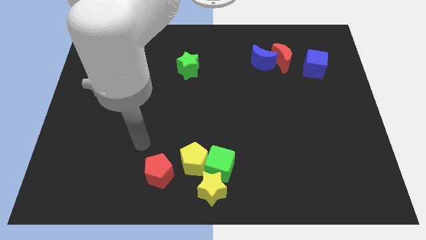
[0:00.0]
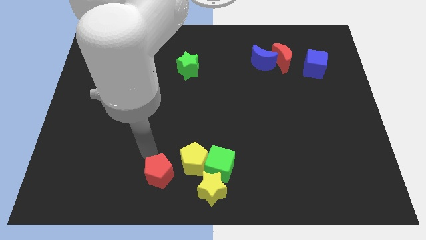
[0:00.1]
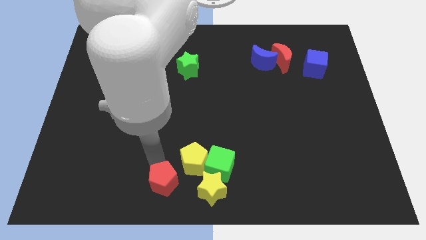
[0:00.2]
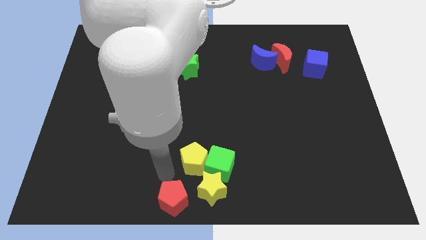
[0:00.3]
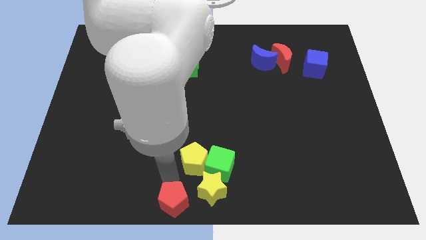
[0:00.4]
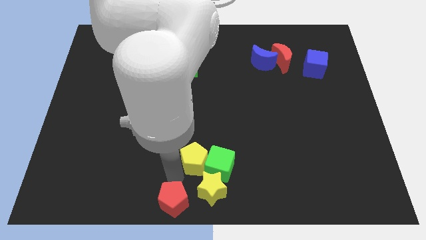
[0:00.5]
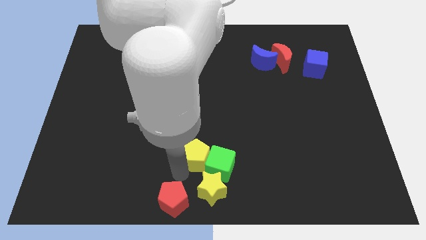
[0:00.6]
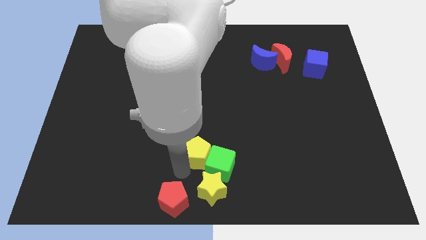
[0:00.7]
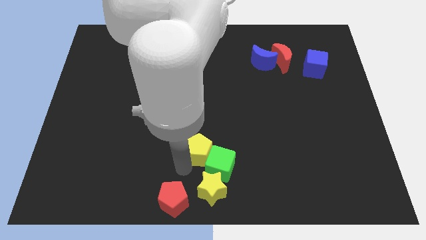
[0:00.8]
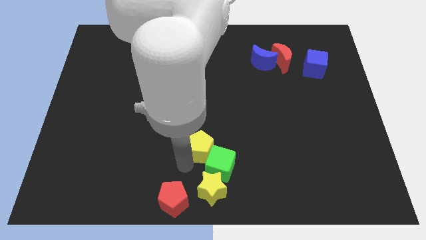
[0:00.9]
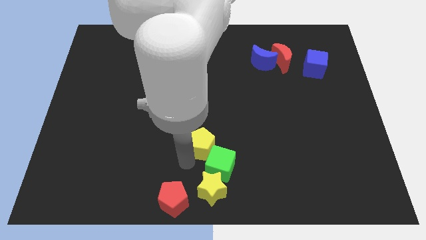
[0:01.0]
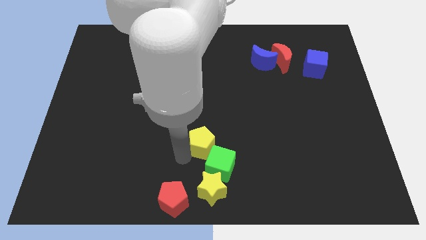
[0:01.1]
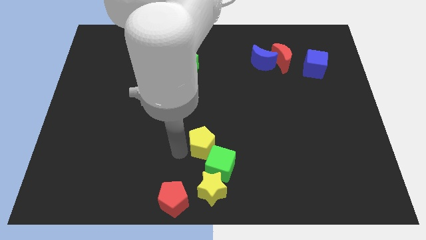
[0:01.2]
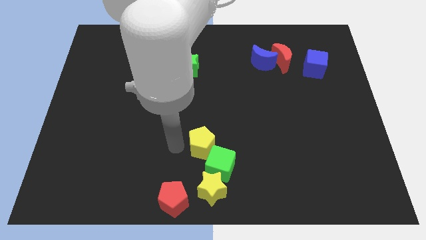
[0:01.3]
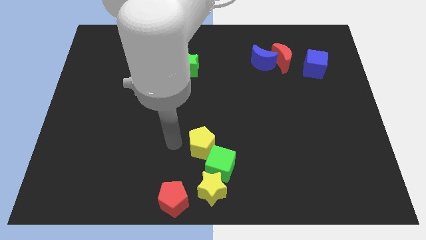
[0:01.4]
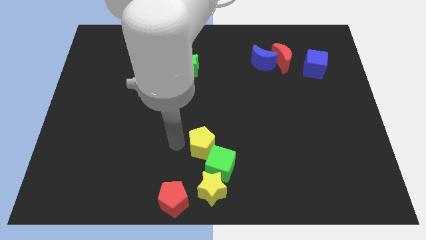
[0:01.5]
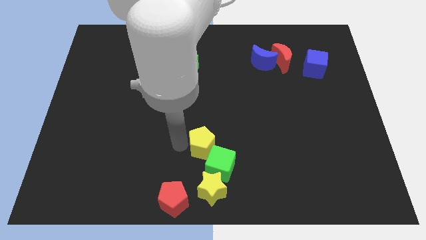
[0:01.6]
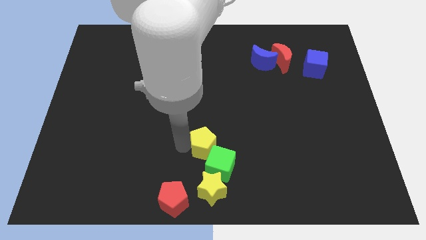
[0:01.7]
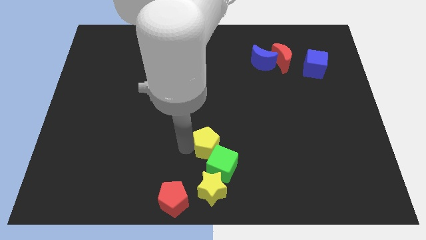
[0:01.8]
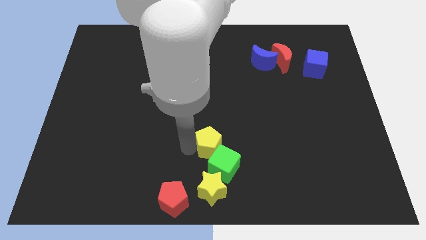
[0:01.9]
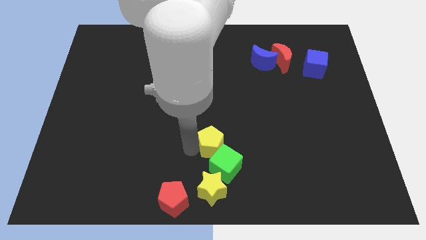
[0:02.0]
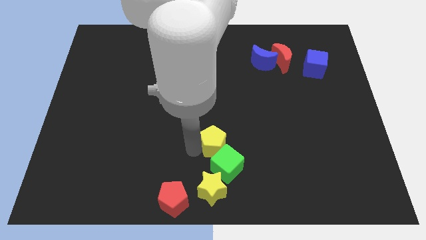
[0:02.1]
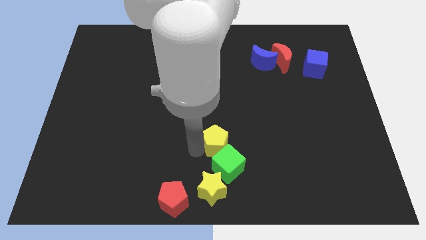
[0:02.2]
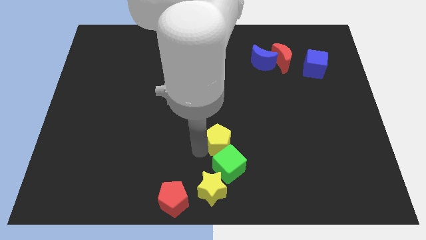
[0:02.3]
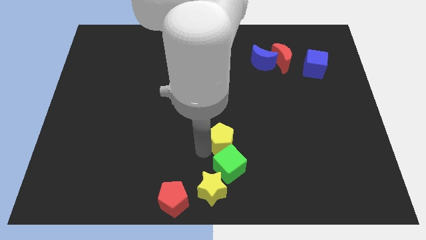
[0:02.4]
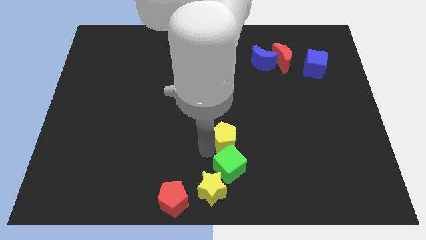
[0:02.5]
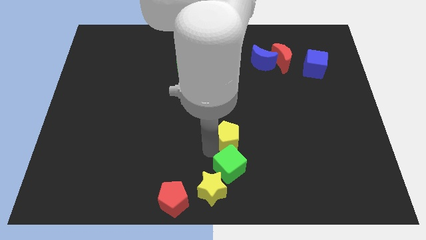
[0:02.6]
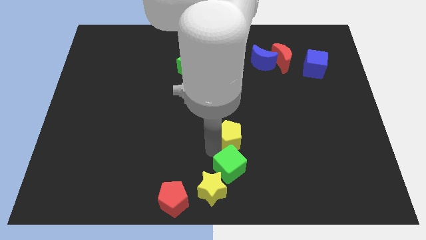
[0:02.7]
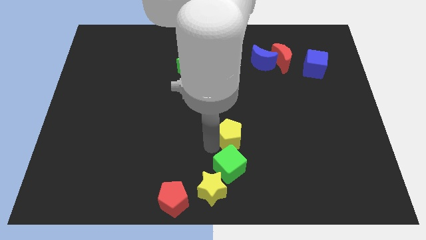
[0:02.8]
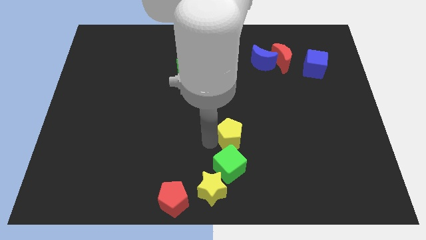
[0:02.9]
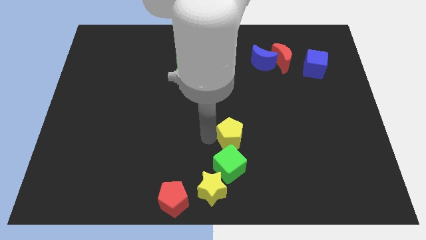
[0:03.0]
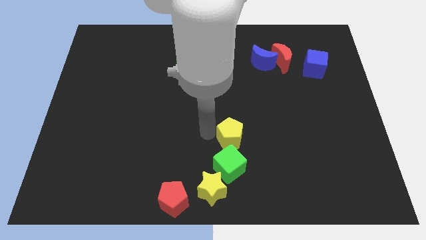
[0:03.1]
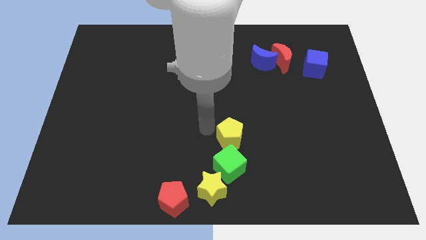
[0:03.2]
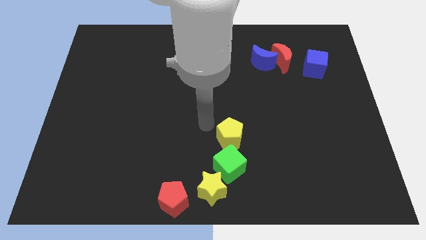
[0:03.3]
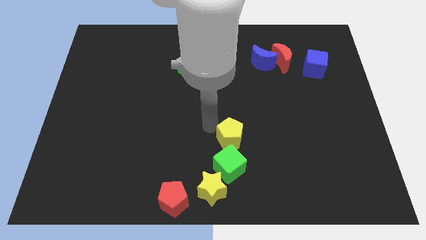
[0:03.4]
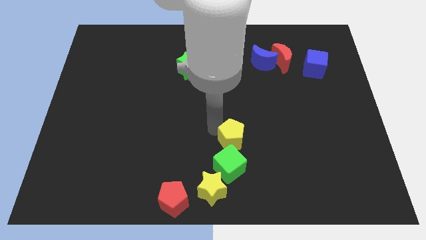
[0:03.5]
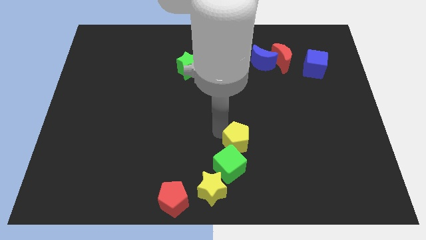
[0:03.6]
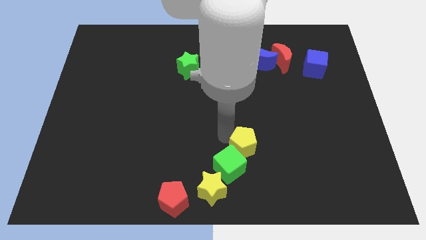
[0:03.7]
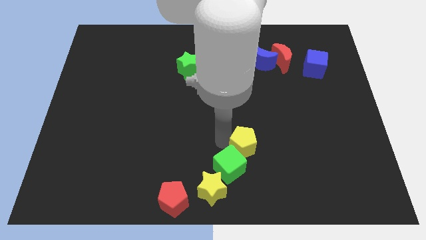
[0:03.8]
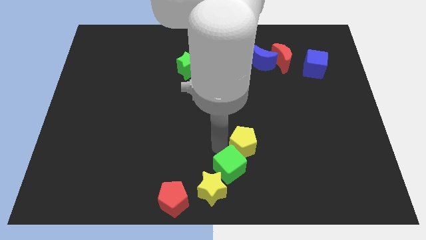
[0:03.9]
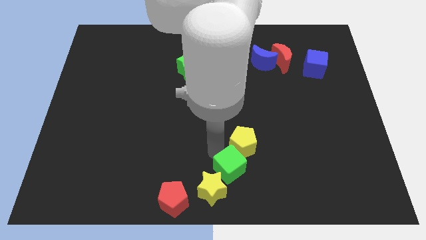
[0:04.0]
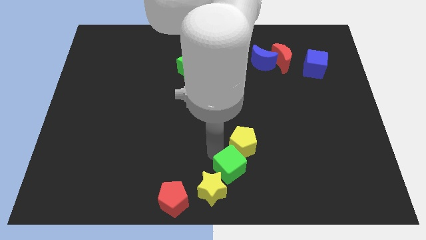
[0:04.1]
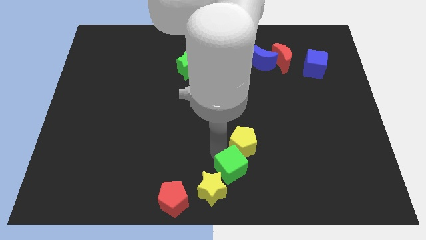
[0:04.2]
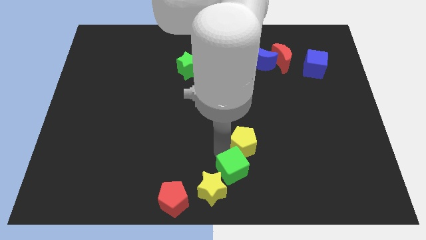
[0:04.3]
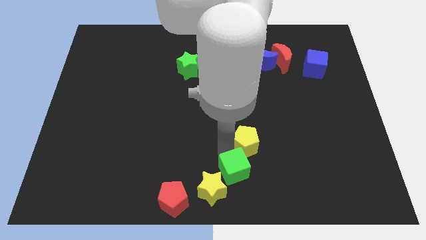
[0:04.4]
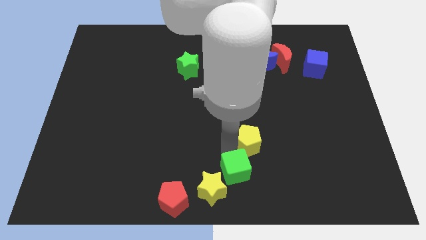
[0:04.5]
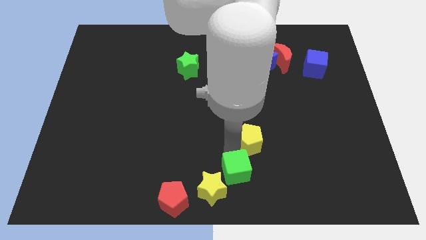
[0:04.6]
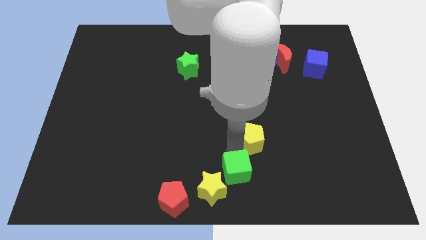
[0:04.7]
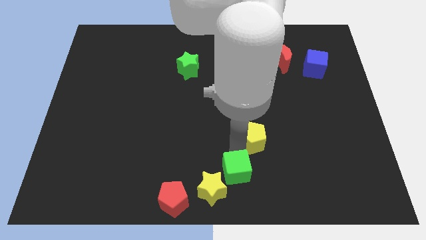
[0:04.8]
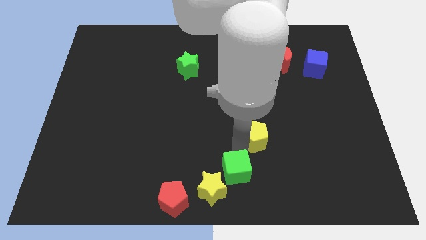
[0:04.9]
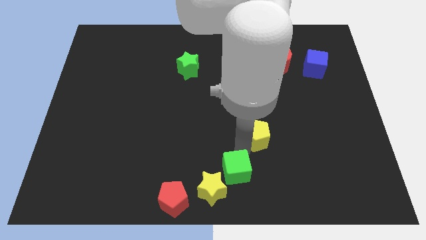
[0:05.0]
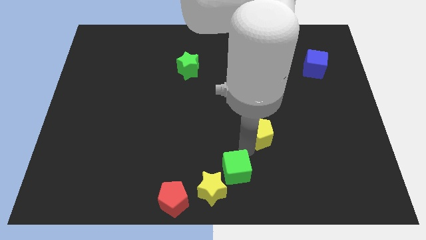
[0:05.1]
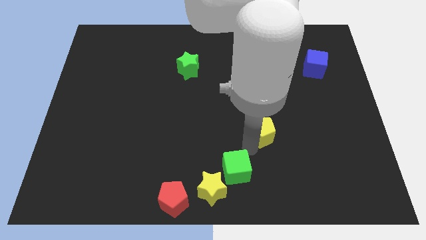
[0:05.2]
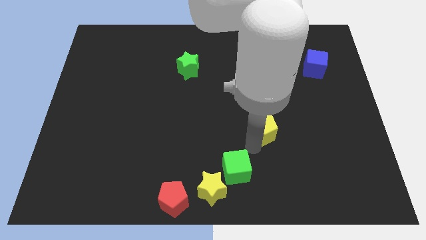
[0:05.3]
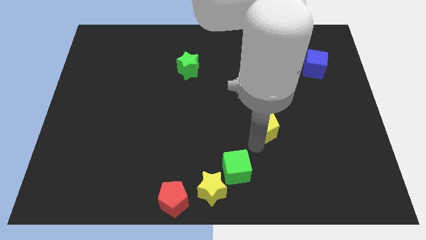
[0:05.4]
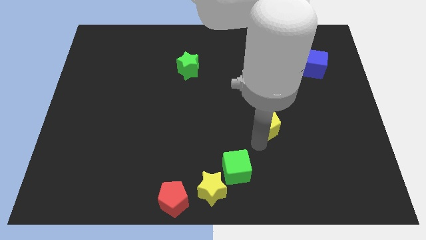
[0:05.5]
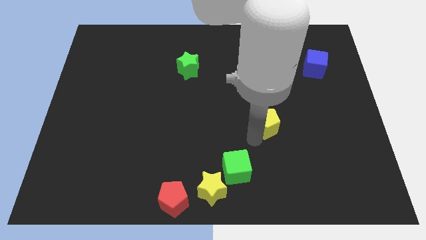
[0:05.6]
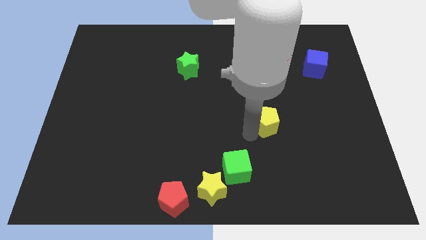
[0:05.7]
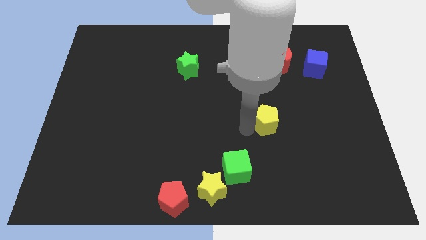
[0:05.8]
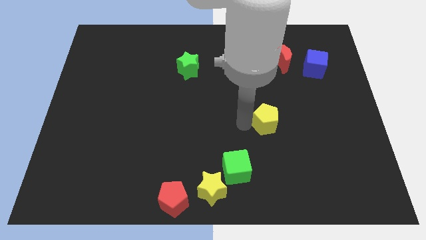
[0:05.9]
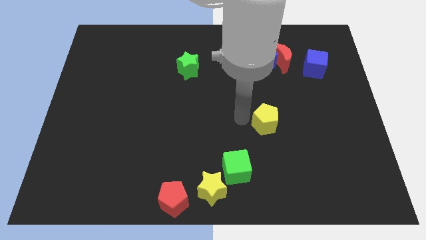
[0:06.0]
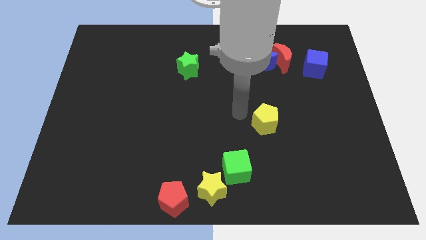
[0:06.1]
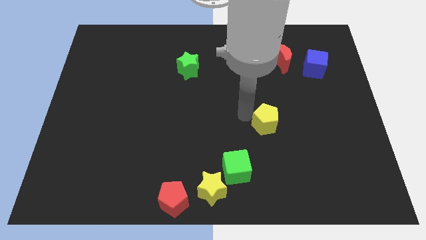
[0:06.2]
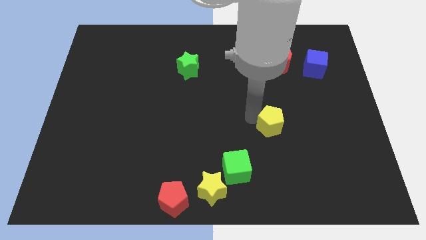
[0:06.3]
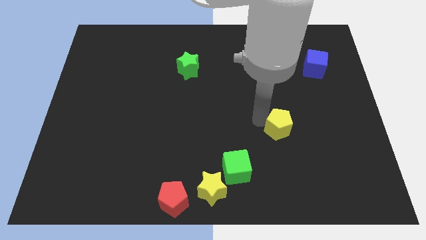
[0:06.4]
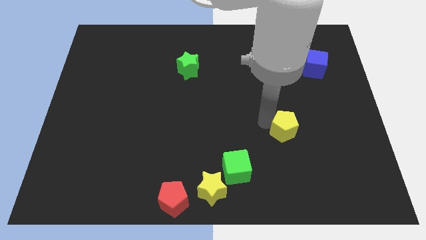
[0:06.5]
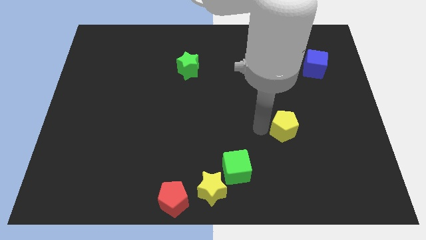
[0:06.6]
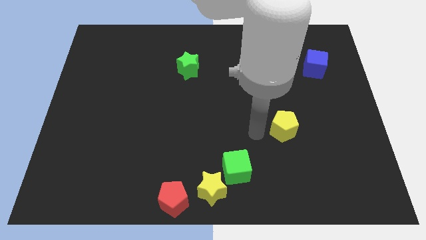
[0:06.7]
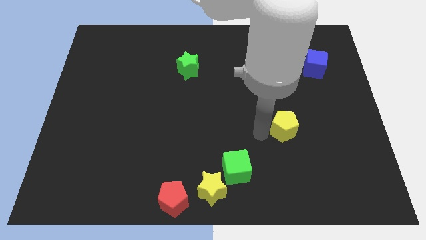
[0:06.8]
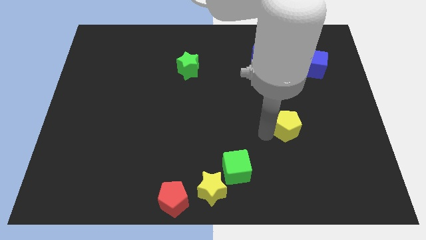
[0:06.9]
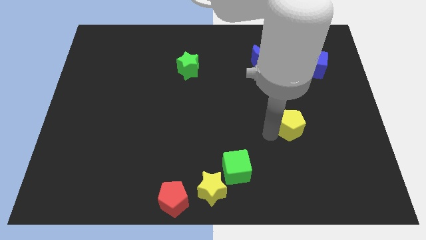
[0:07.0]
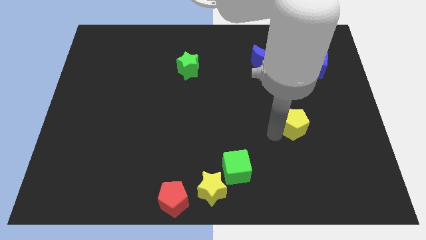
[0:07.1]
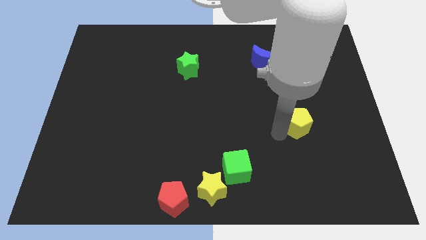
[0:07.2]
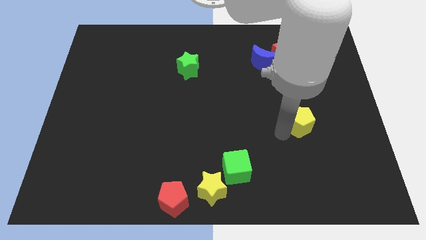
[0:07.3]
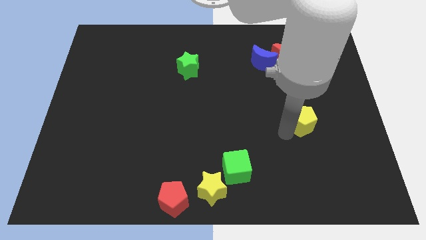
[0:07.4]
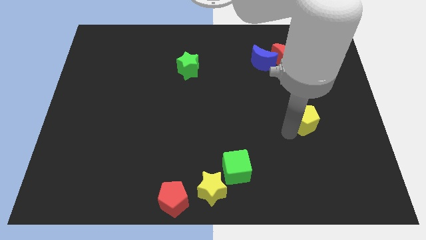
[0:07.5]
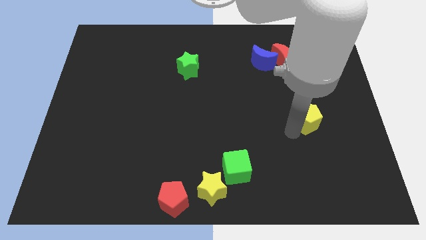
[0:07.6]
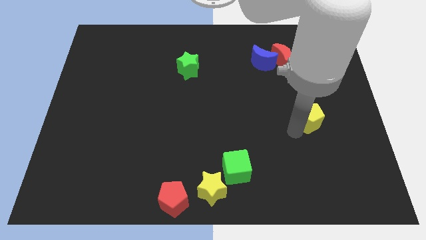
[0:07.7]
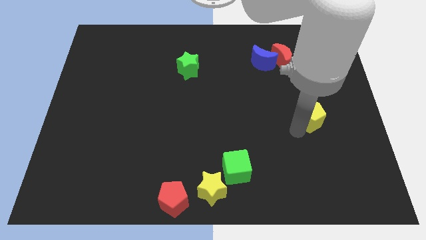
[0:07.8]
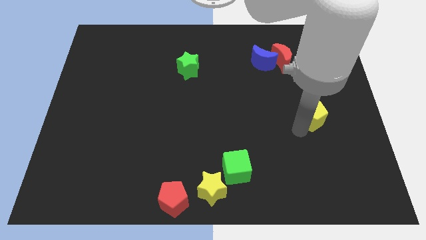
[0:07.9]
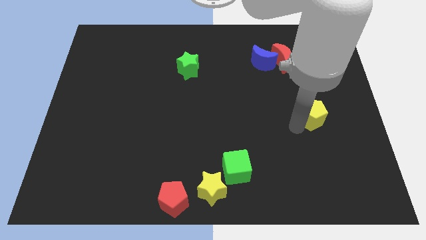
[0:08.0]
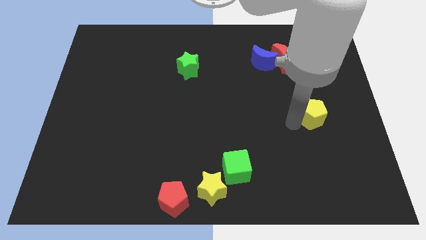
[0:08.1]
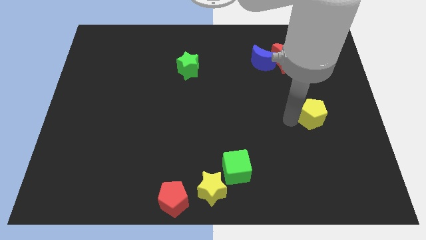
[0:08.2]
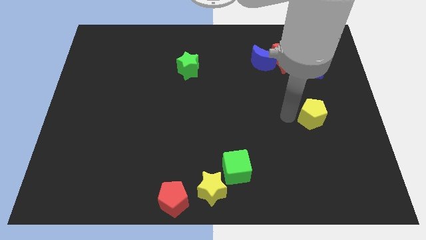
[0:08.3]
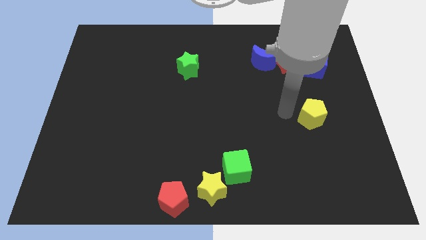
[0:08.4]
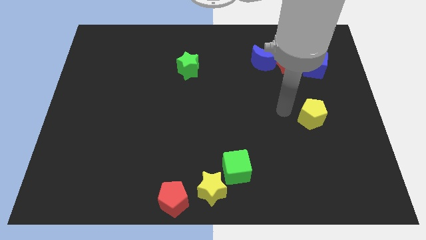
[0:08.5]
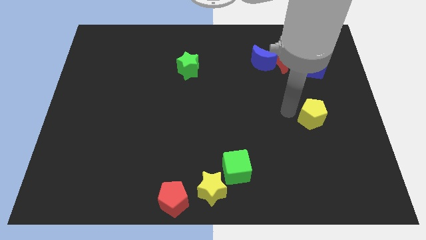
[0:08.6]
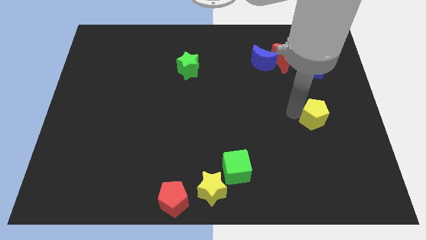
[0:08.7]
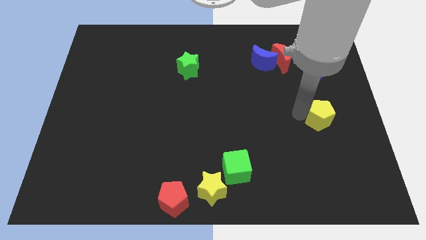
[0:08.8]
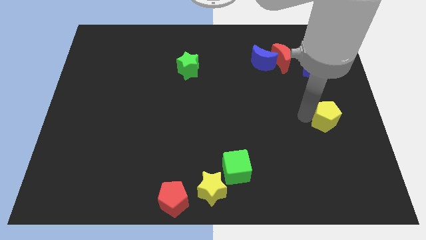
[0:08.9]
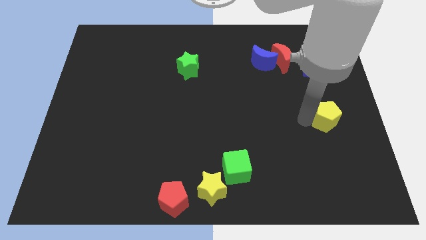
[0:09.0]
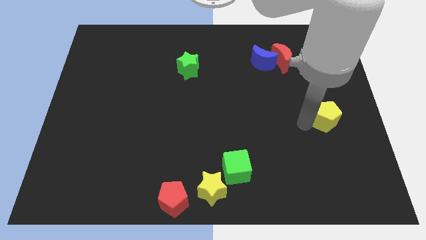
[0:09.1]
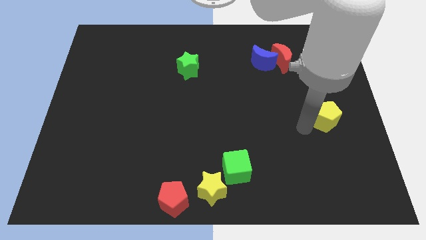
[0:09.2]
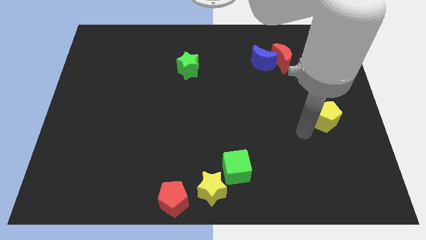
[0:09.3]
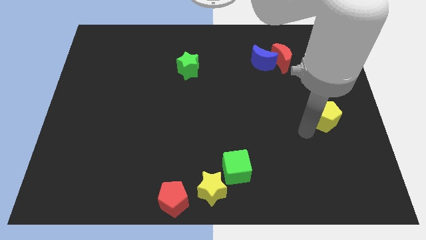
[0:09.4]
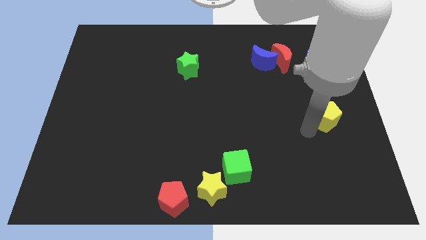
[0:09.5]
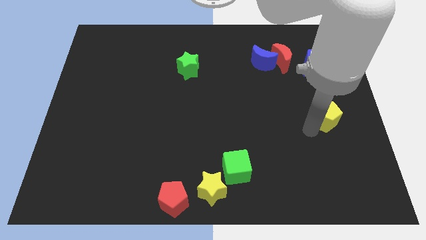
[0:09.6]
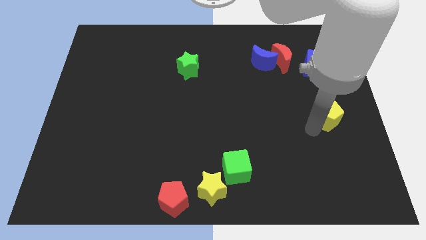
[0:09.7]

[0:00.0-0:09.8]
move the yellow pentagon to the center right
